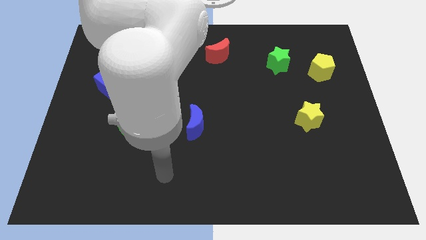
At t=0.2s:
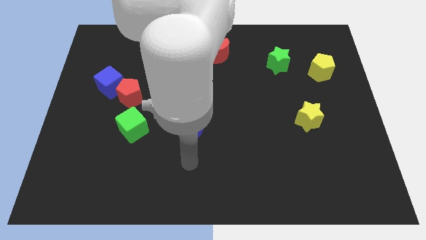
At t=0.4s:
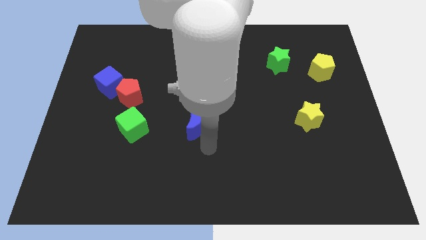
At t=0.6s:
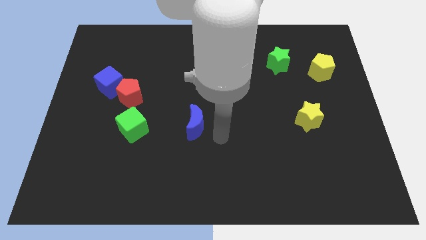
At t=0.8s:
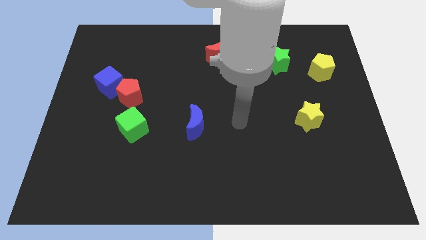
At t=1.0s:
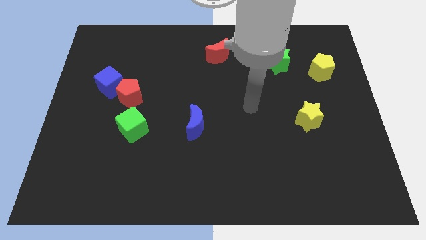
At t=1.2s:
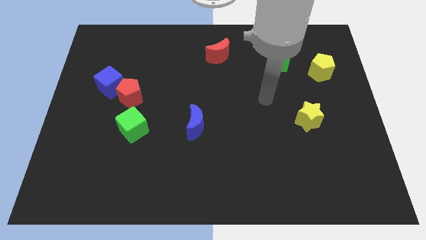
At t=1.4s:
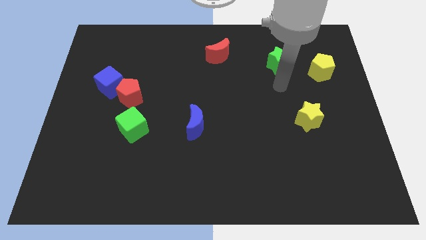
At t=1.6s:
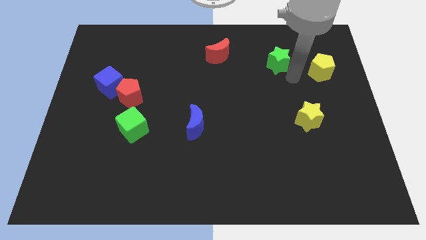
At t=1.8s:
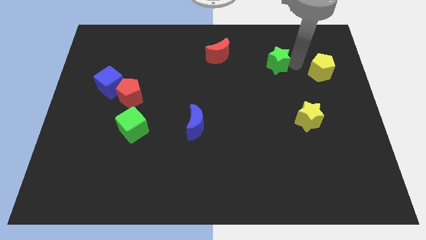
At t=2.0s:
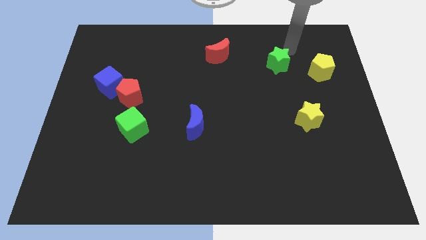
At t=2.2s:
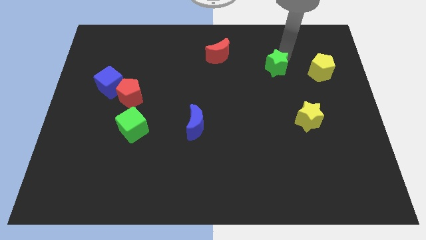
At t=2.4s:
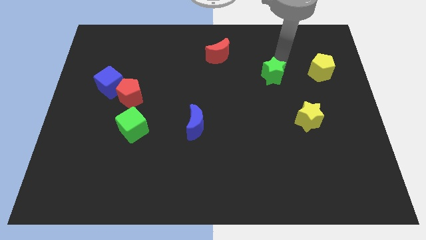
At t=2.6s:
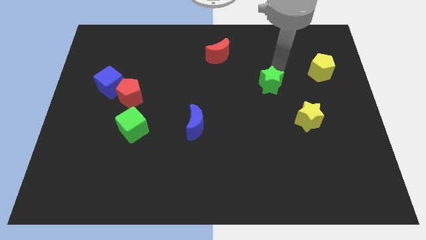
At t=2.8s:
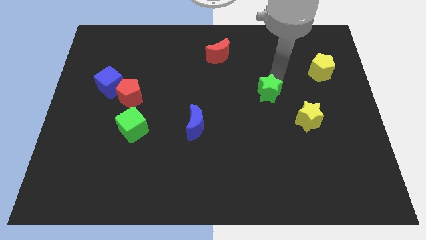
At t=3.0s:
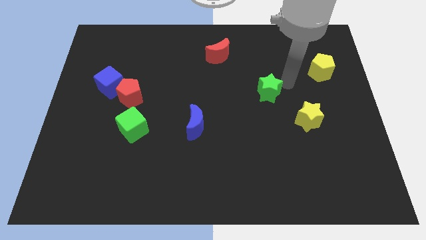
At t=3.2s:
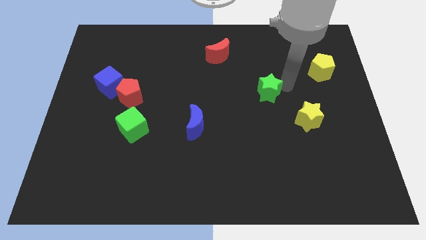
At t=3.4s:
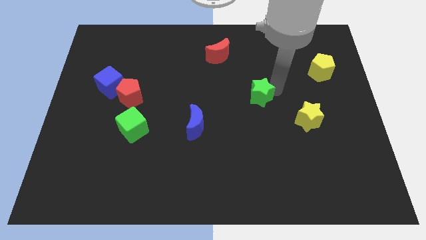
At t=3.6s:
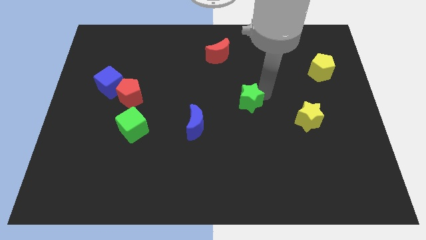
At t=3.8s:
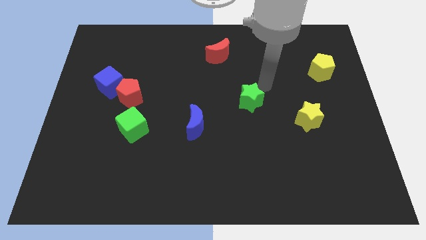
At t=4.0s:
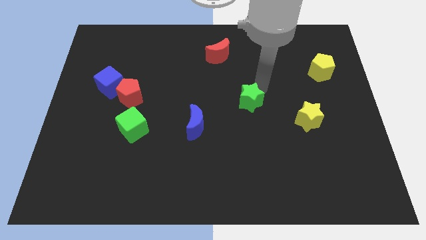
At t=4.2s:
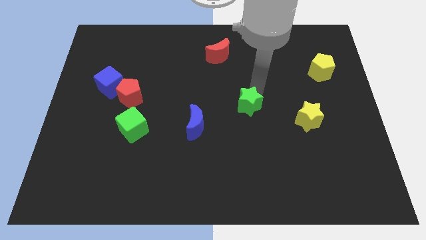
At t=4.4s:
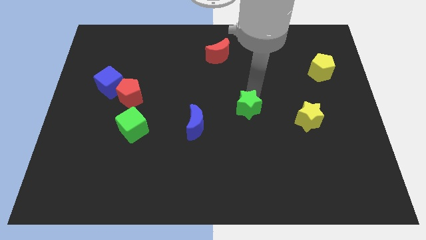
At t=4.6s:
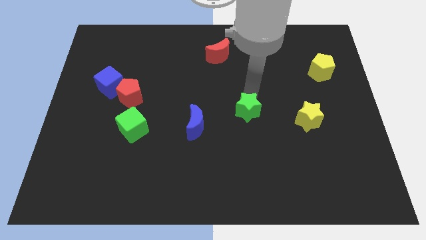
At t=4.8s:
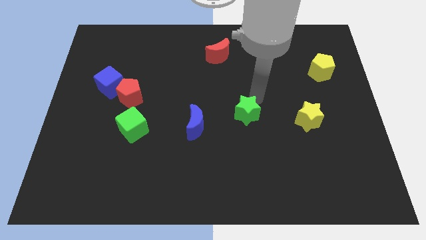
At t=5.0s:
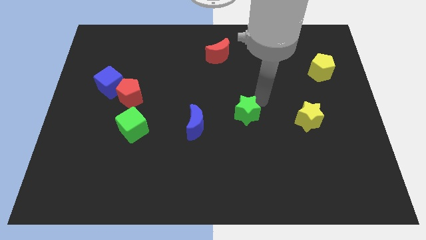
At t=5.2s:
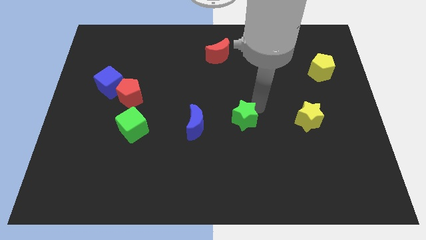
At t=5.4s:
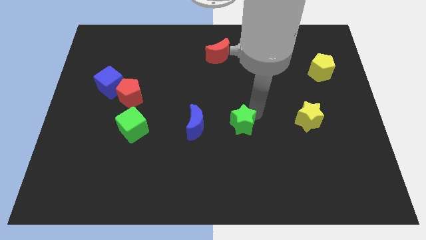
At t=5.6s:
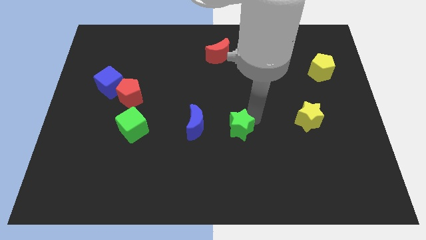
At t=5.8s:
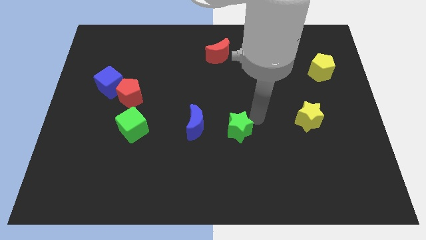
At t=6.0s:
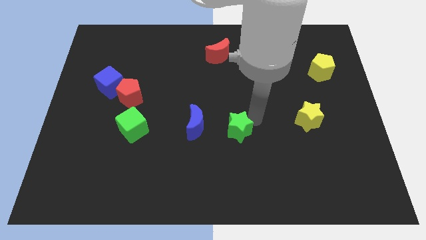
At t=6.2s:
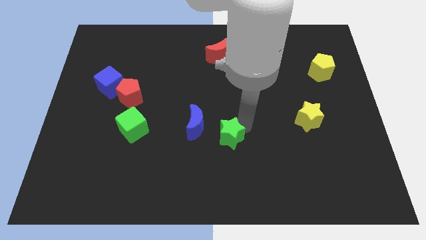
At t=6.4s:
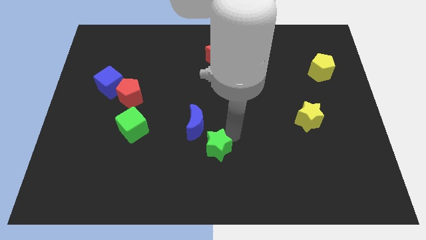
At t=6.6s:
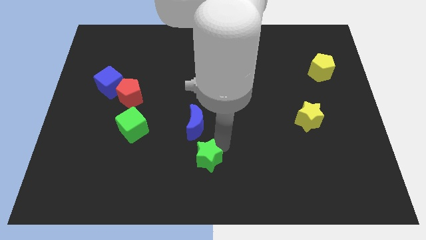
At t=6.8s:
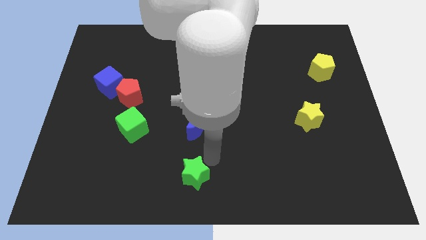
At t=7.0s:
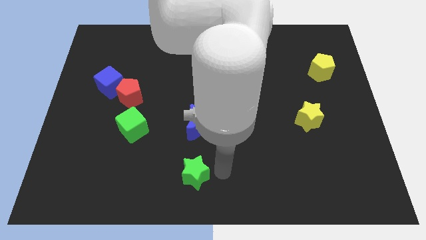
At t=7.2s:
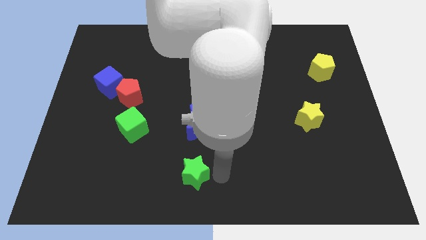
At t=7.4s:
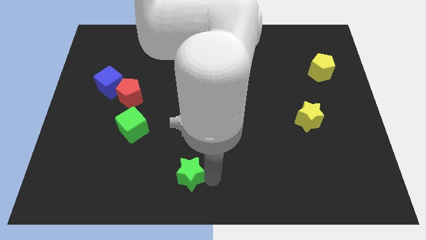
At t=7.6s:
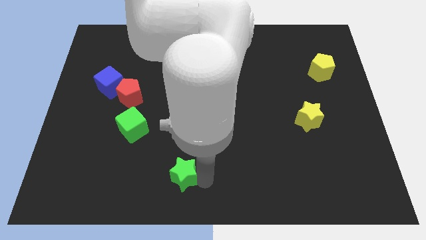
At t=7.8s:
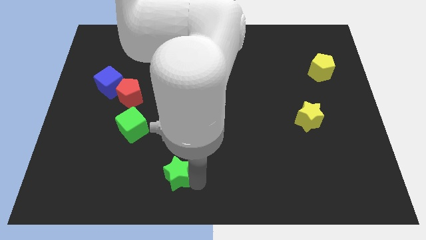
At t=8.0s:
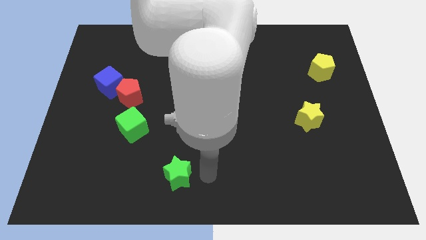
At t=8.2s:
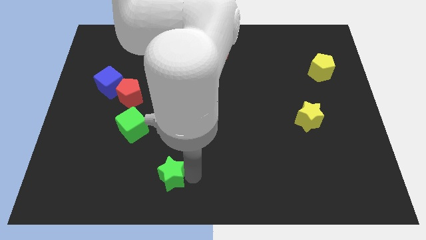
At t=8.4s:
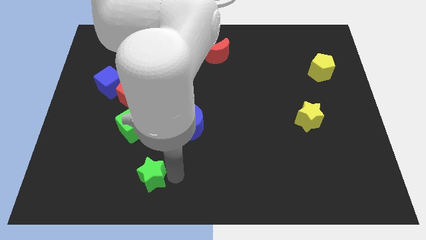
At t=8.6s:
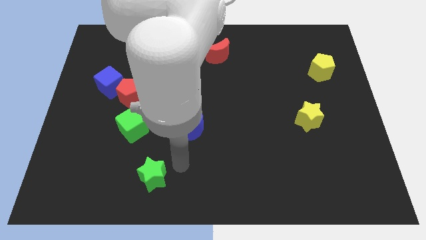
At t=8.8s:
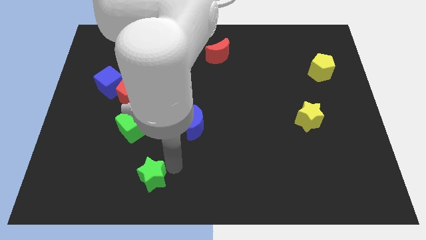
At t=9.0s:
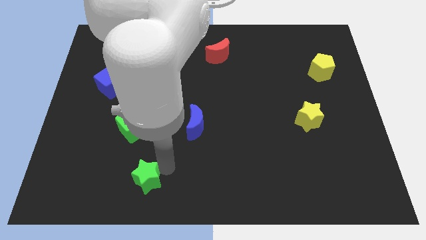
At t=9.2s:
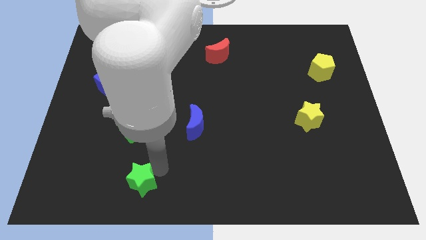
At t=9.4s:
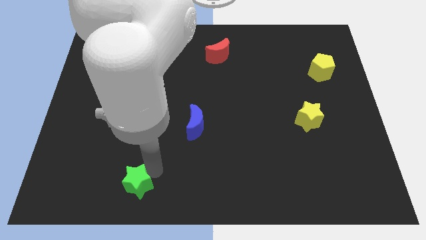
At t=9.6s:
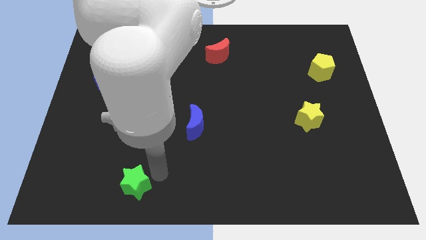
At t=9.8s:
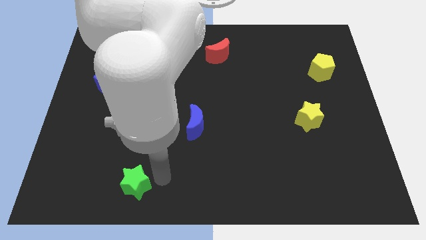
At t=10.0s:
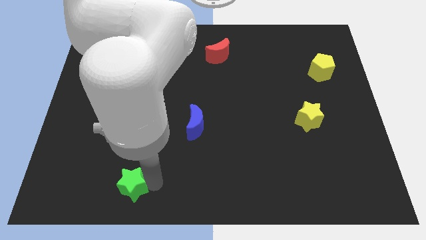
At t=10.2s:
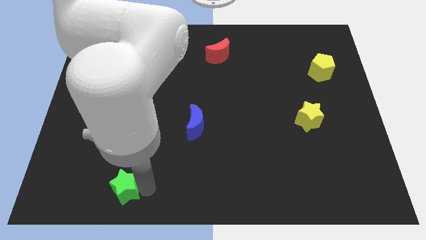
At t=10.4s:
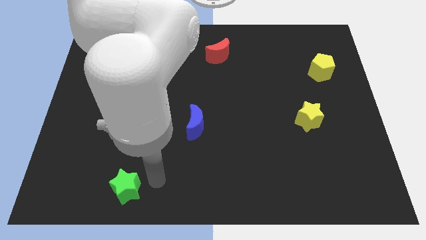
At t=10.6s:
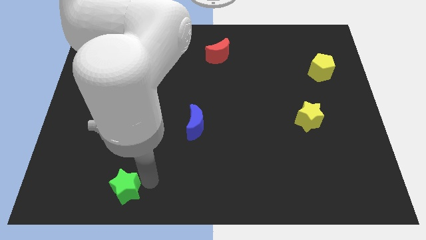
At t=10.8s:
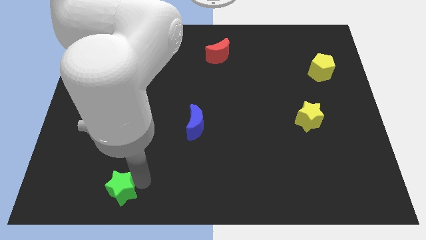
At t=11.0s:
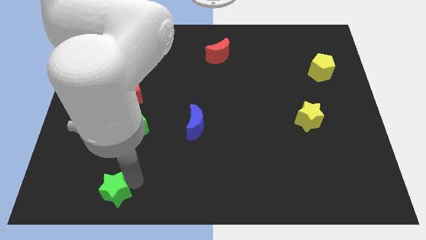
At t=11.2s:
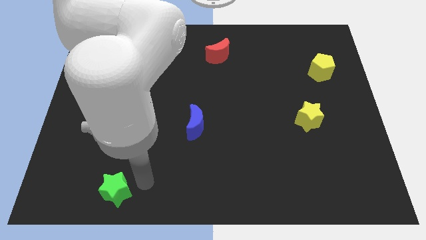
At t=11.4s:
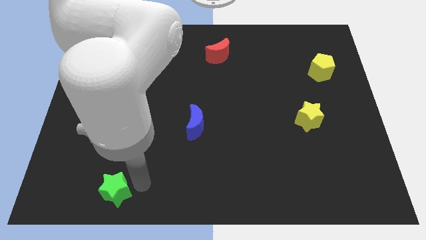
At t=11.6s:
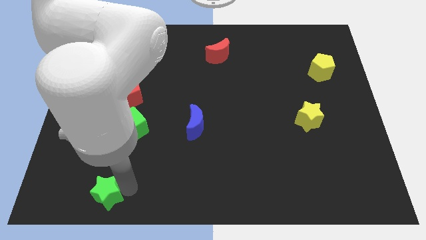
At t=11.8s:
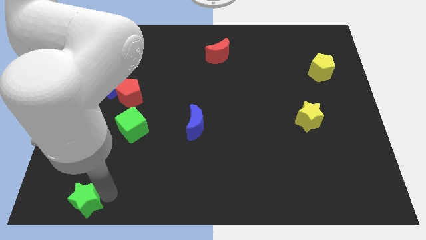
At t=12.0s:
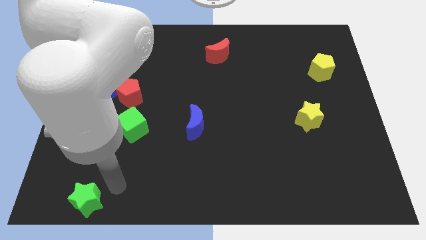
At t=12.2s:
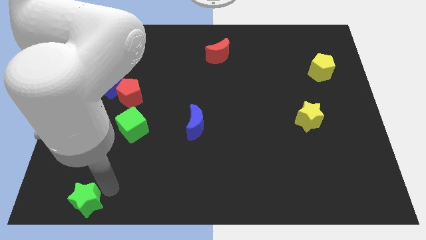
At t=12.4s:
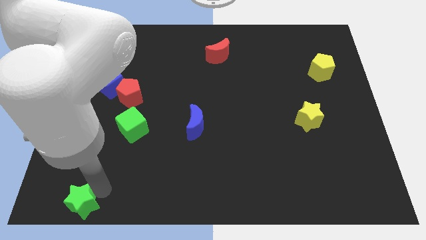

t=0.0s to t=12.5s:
push the green star to the bottom left of the board

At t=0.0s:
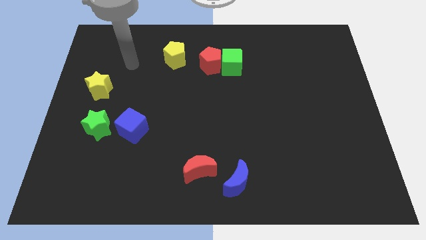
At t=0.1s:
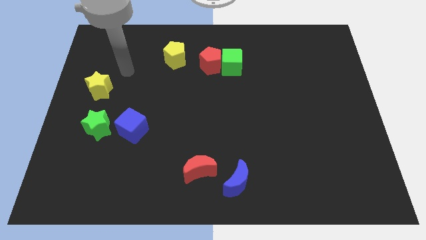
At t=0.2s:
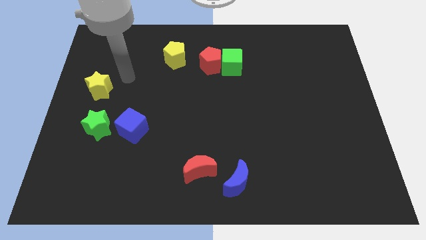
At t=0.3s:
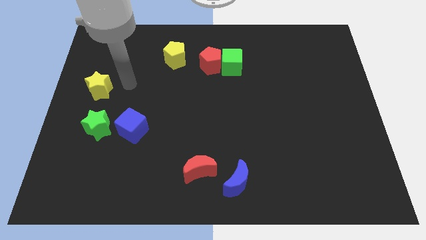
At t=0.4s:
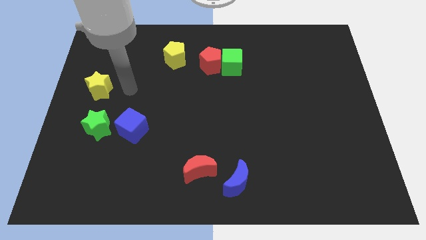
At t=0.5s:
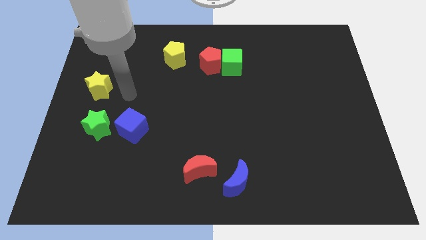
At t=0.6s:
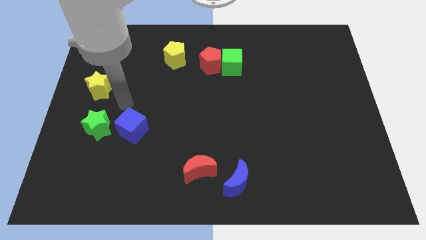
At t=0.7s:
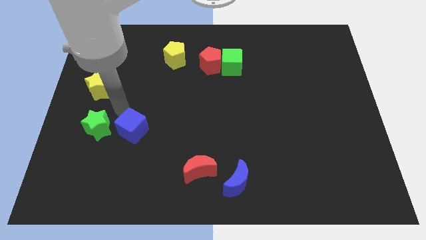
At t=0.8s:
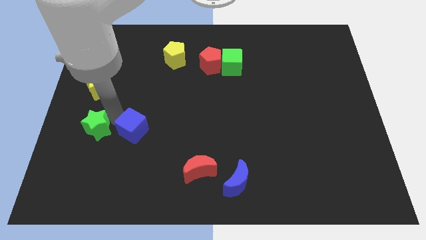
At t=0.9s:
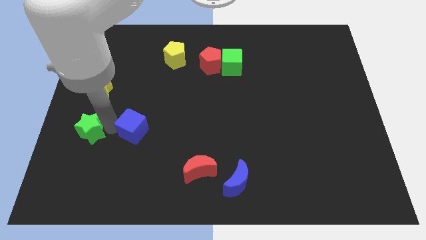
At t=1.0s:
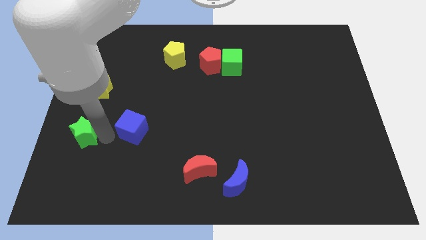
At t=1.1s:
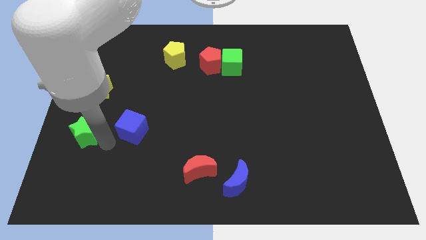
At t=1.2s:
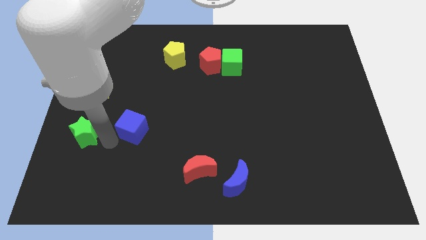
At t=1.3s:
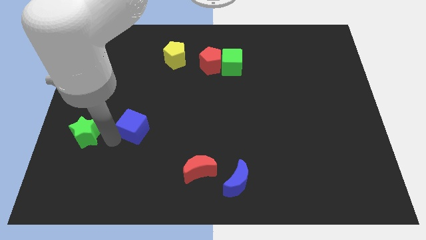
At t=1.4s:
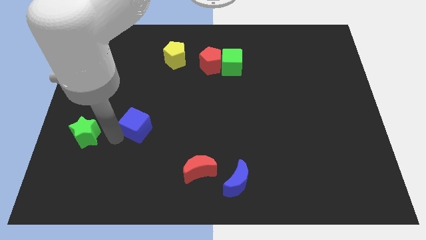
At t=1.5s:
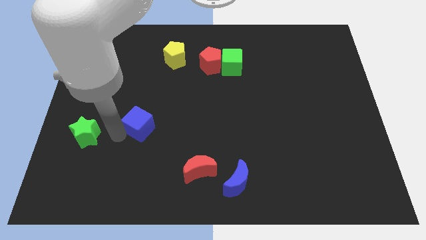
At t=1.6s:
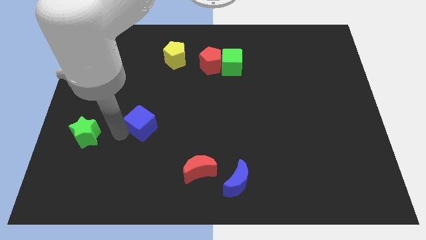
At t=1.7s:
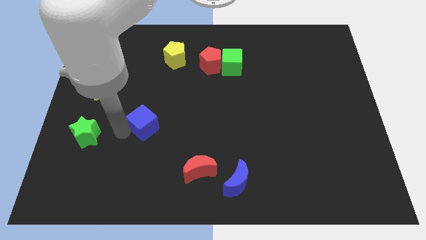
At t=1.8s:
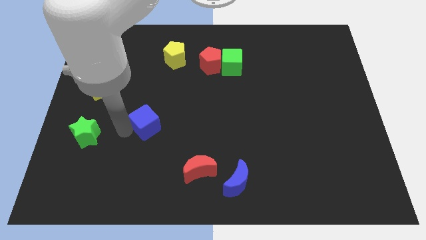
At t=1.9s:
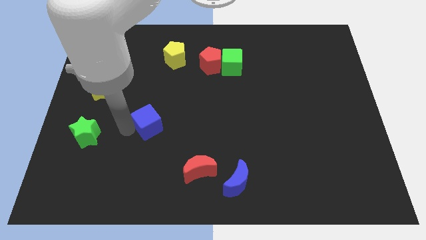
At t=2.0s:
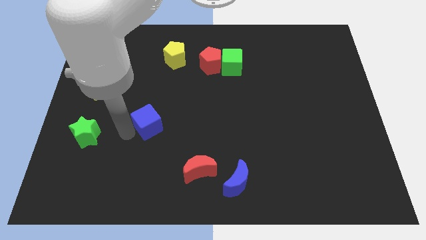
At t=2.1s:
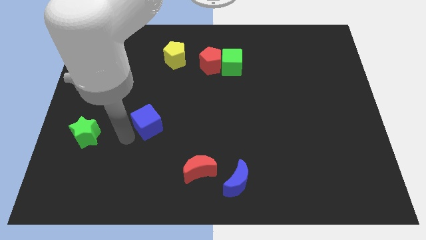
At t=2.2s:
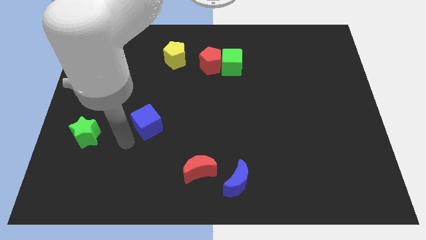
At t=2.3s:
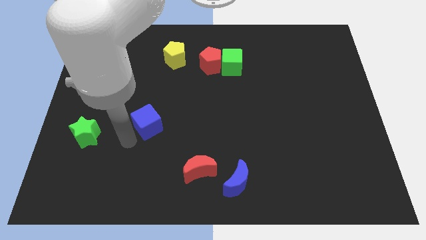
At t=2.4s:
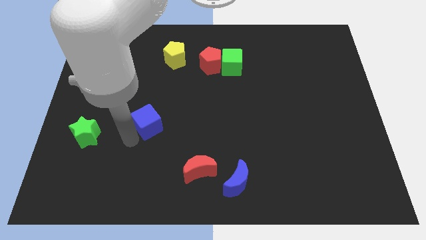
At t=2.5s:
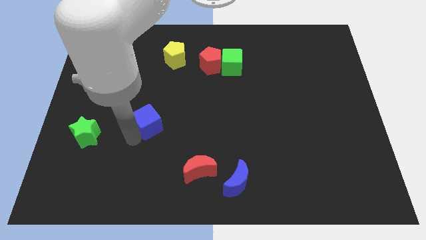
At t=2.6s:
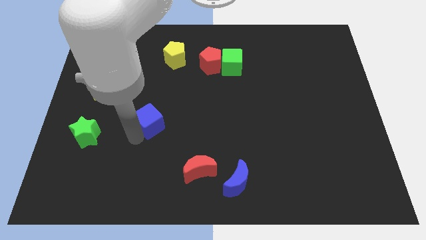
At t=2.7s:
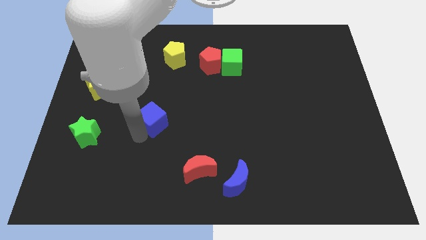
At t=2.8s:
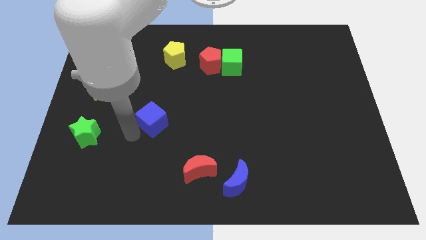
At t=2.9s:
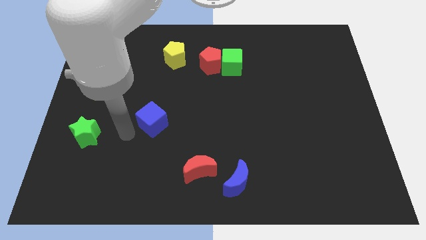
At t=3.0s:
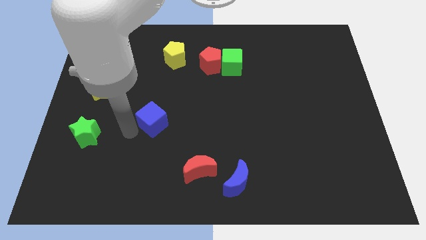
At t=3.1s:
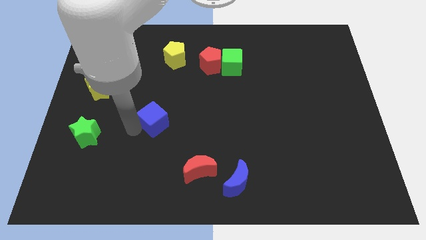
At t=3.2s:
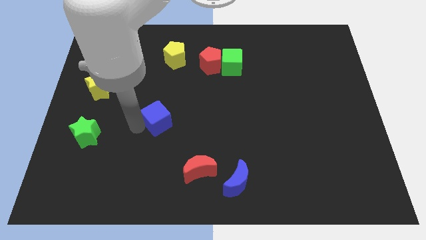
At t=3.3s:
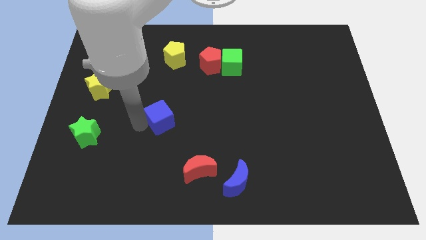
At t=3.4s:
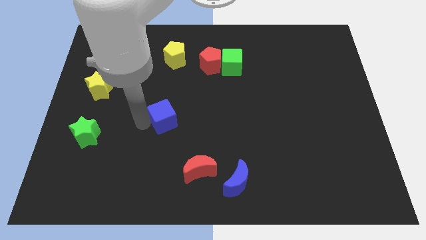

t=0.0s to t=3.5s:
put the blue cube to the center
